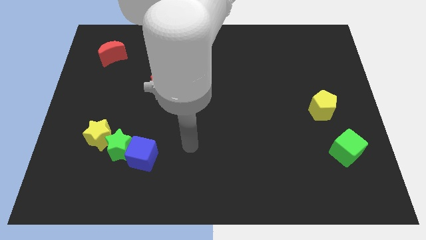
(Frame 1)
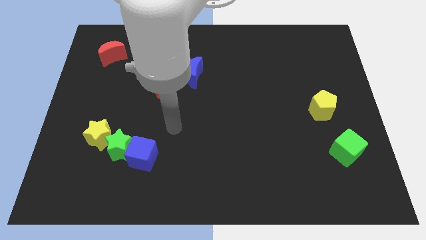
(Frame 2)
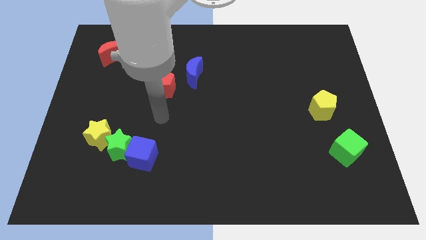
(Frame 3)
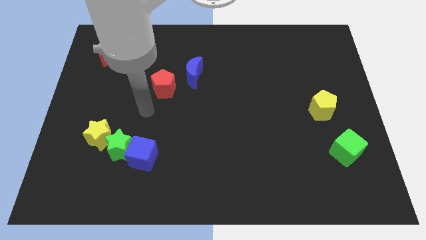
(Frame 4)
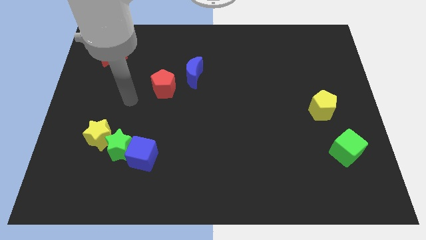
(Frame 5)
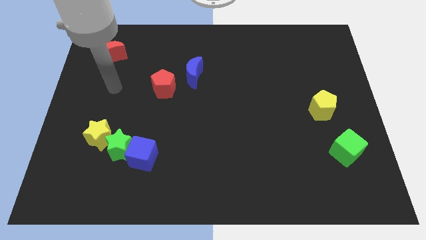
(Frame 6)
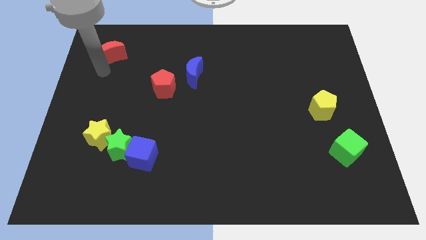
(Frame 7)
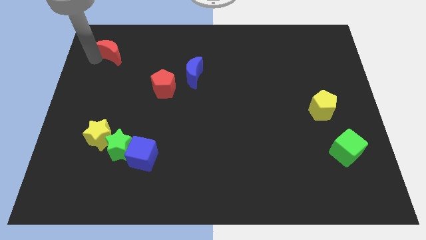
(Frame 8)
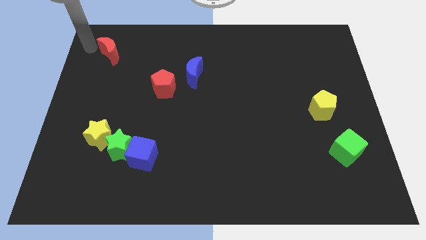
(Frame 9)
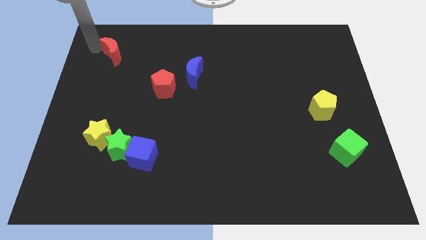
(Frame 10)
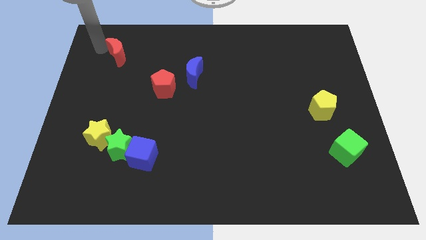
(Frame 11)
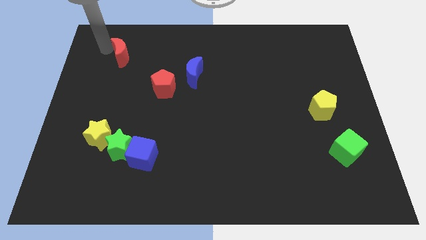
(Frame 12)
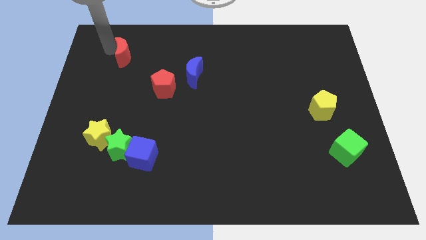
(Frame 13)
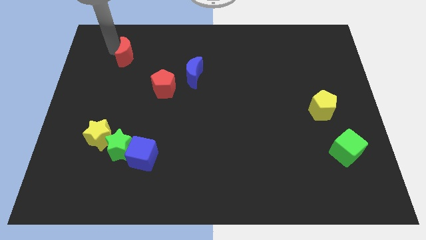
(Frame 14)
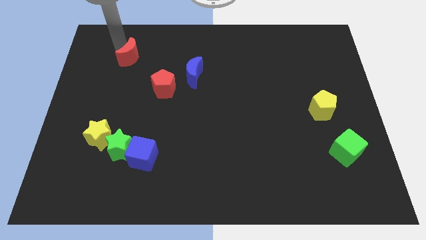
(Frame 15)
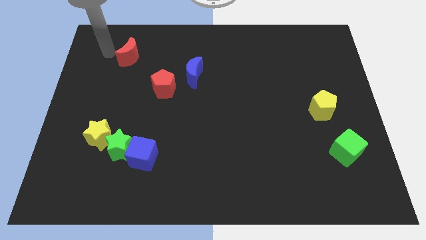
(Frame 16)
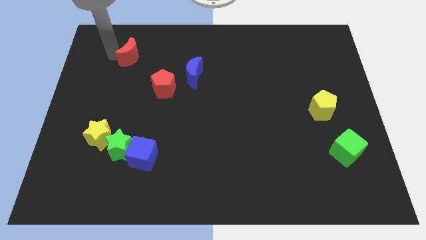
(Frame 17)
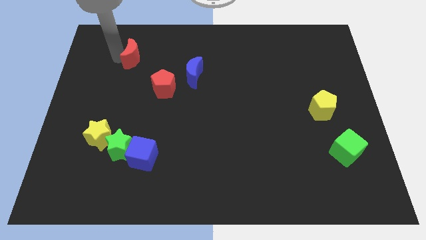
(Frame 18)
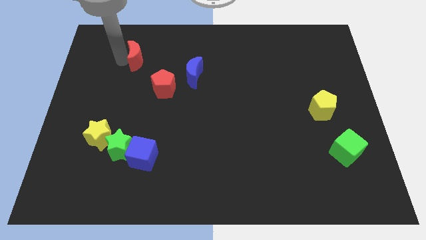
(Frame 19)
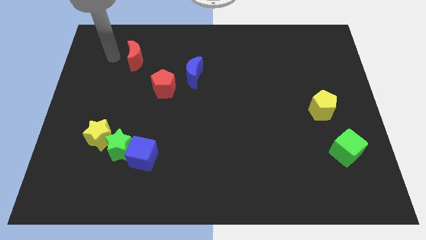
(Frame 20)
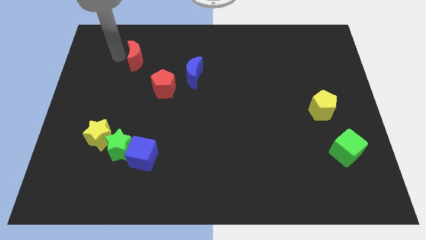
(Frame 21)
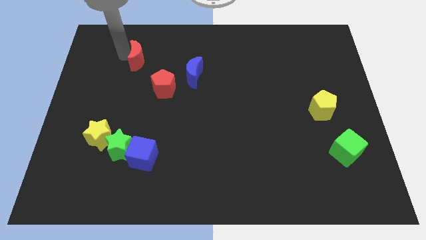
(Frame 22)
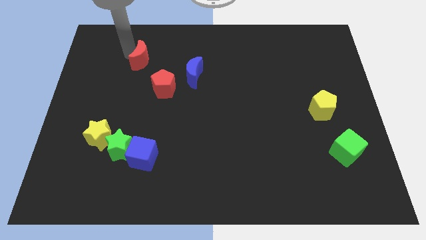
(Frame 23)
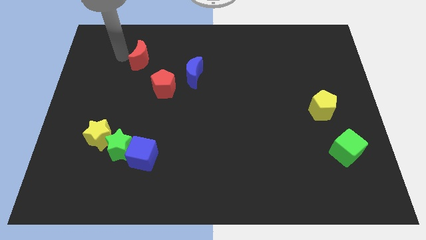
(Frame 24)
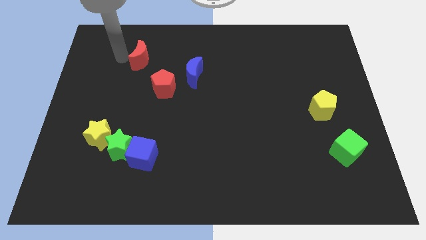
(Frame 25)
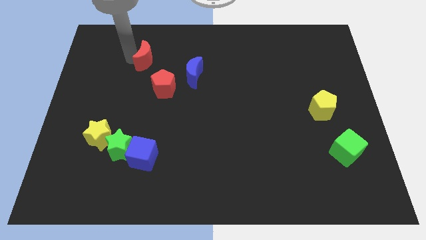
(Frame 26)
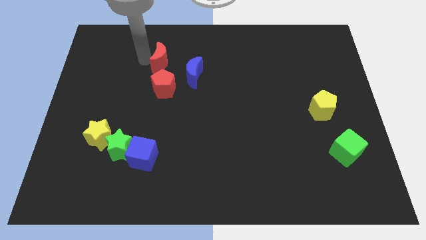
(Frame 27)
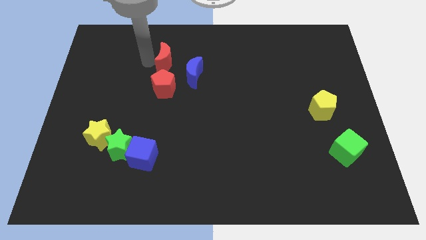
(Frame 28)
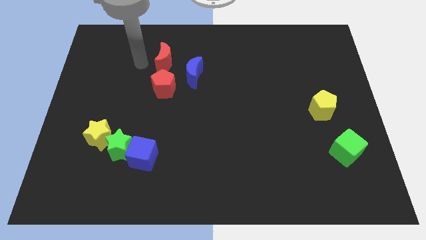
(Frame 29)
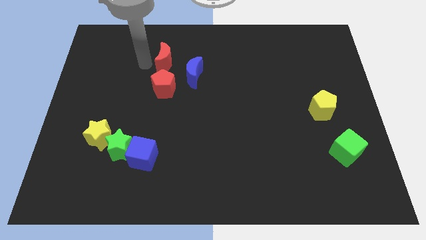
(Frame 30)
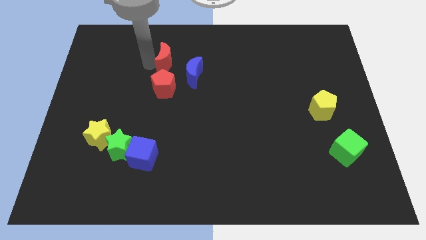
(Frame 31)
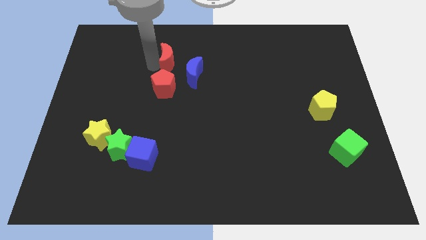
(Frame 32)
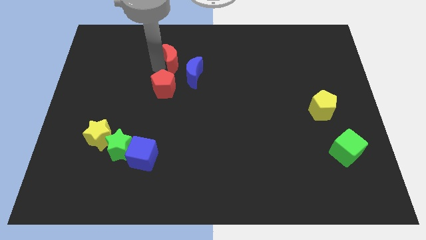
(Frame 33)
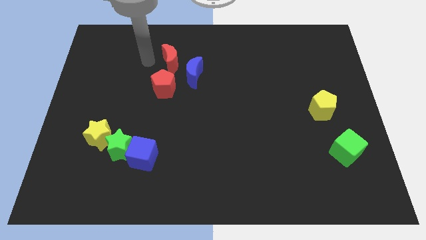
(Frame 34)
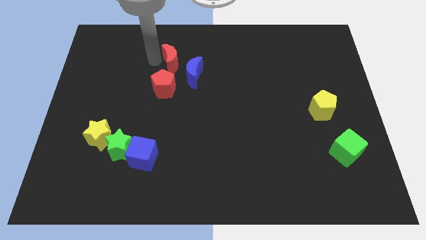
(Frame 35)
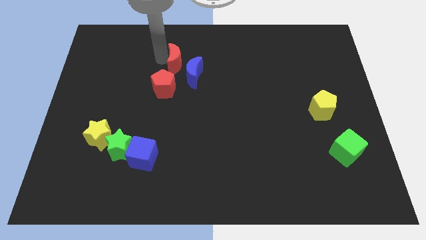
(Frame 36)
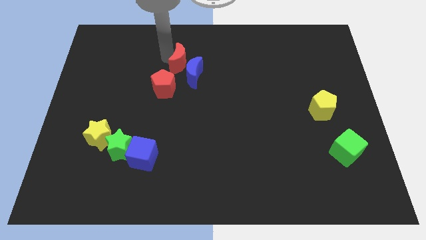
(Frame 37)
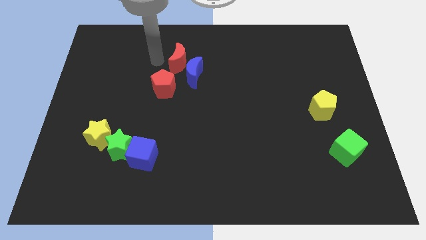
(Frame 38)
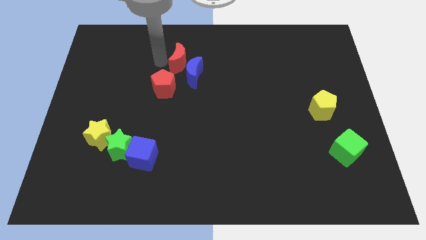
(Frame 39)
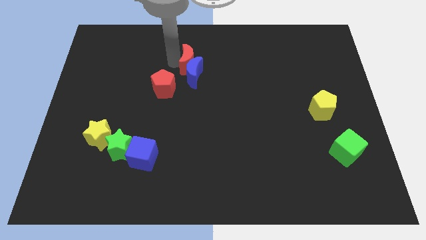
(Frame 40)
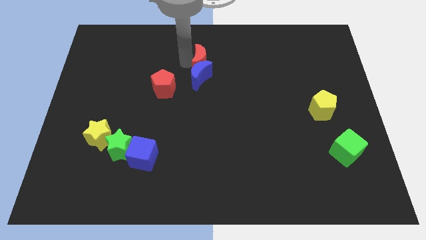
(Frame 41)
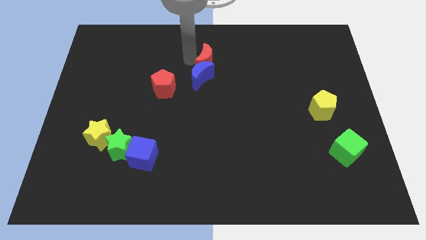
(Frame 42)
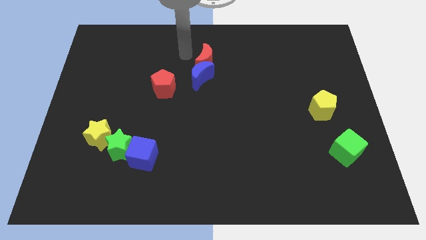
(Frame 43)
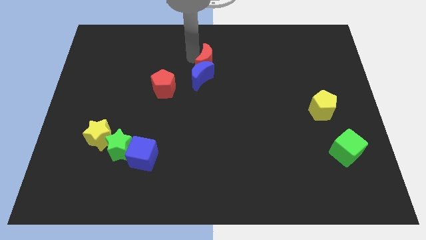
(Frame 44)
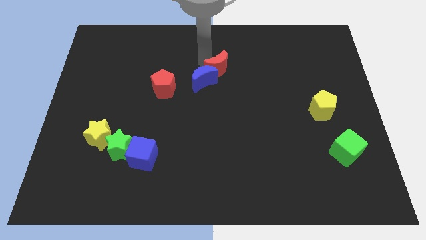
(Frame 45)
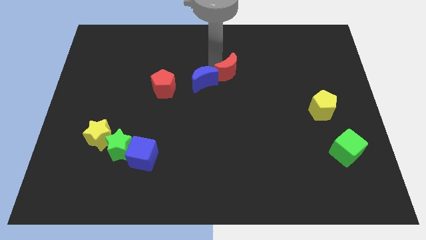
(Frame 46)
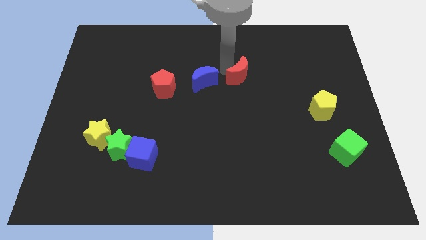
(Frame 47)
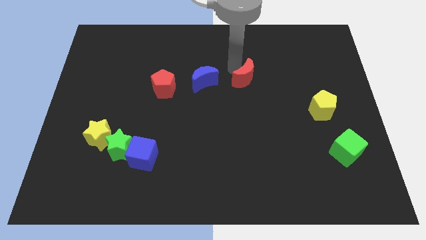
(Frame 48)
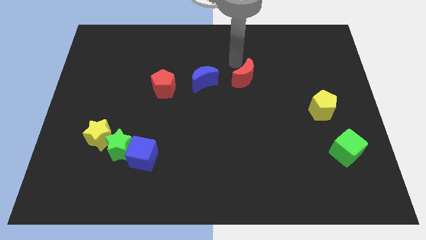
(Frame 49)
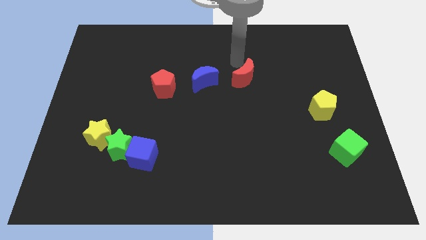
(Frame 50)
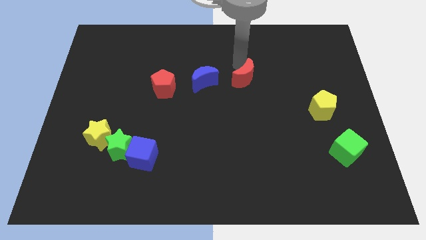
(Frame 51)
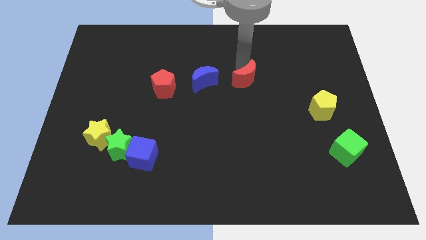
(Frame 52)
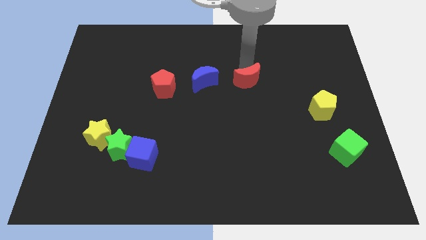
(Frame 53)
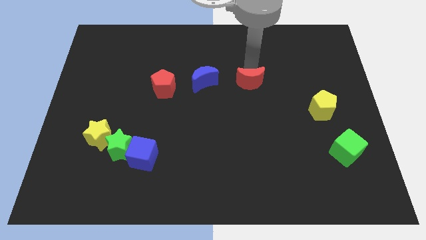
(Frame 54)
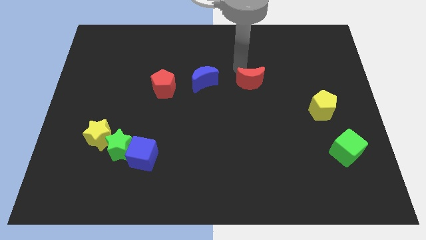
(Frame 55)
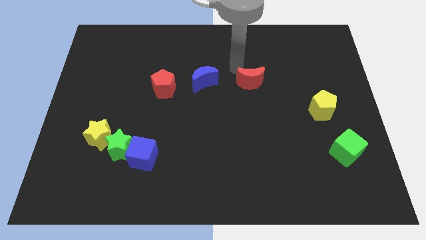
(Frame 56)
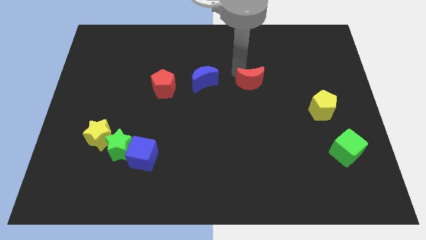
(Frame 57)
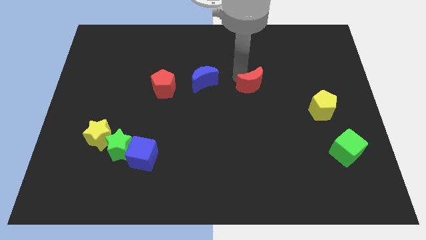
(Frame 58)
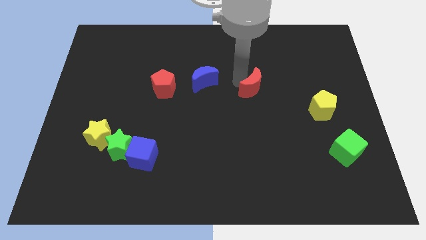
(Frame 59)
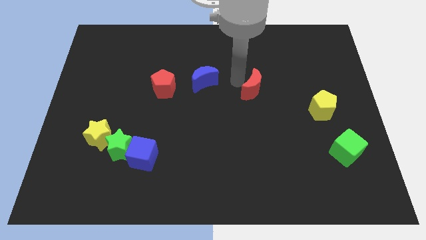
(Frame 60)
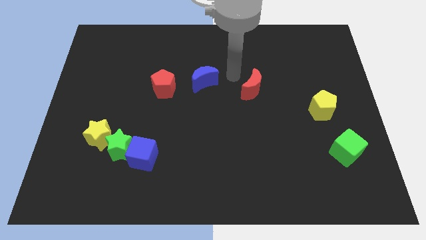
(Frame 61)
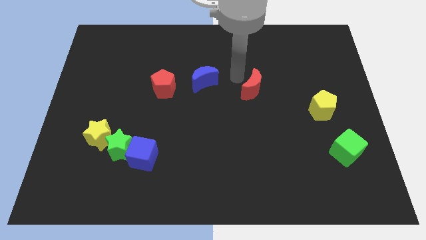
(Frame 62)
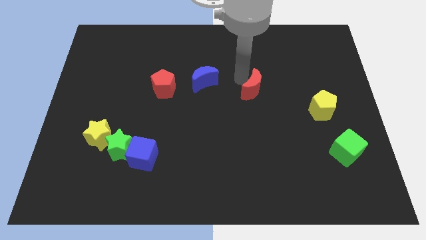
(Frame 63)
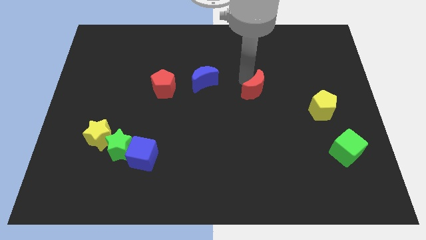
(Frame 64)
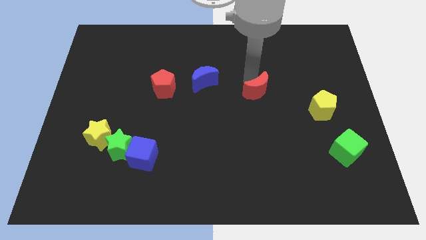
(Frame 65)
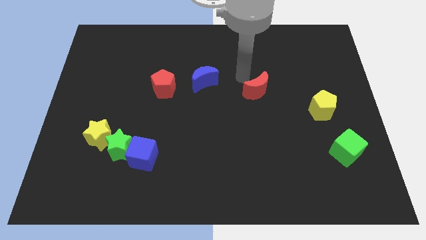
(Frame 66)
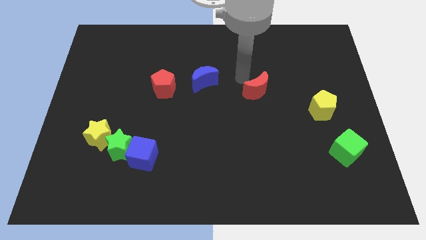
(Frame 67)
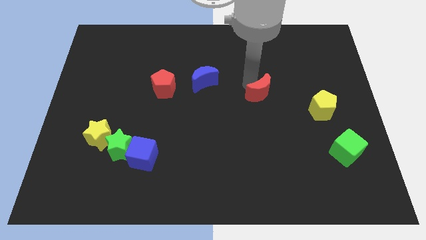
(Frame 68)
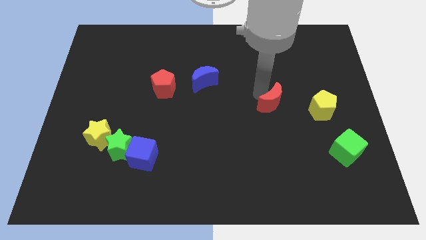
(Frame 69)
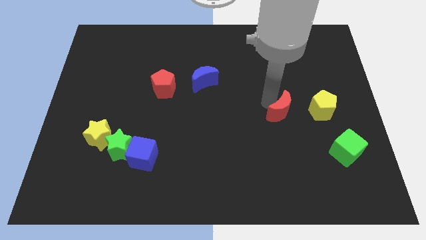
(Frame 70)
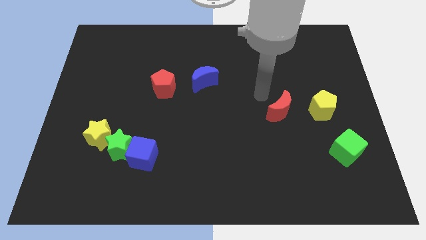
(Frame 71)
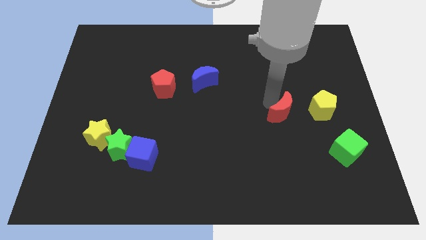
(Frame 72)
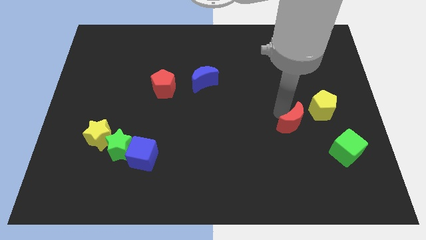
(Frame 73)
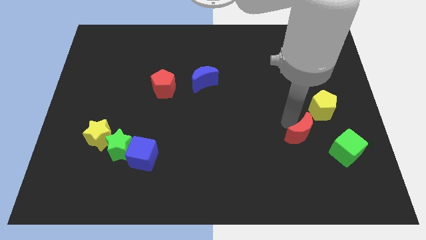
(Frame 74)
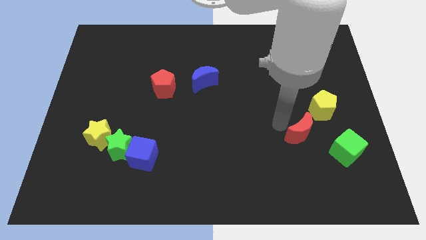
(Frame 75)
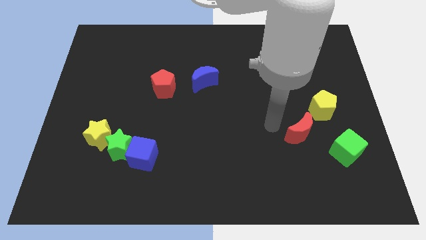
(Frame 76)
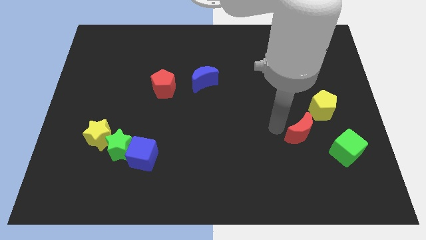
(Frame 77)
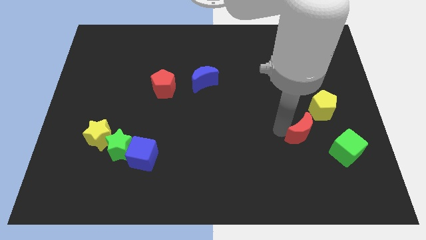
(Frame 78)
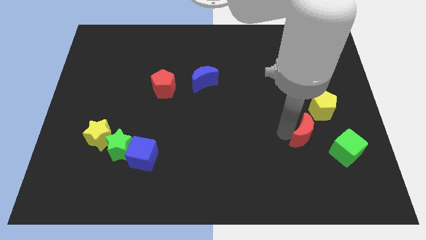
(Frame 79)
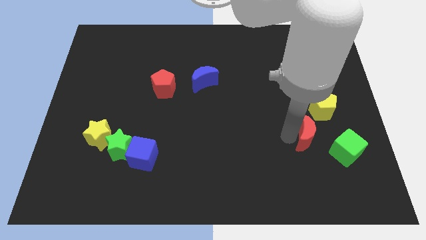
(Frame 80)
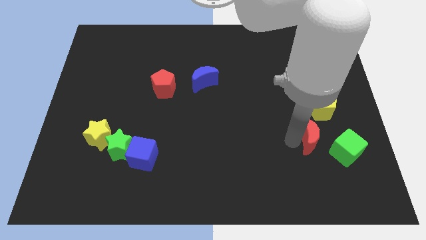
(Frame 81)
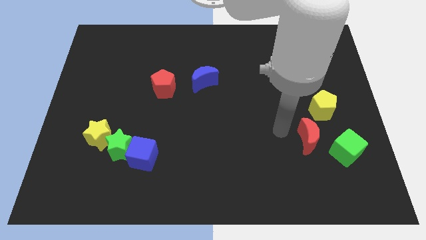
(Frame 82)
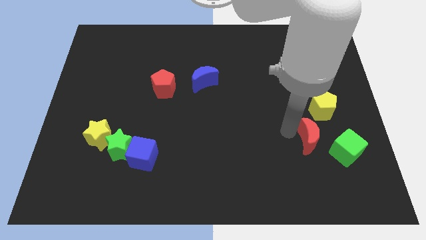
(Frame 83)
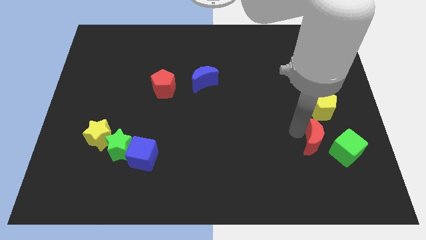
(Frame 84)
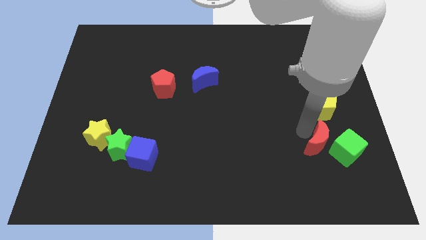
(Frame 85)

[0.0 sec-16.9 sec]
slide the red moon next to the green cube
